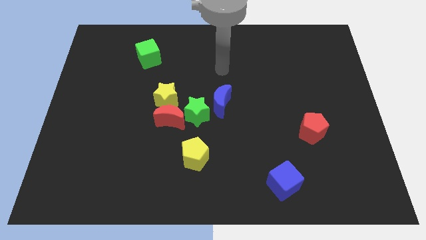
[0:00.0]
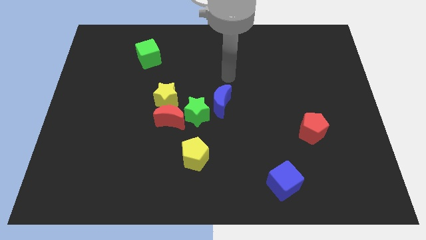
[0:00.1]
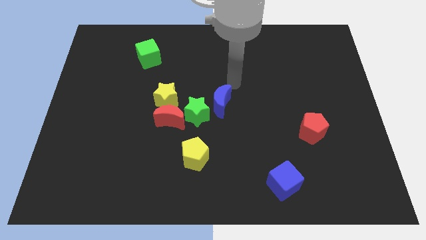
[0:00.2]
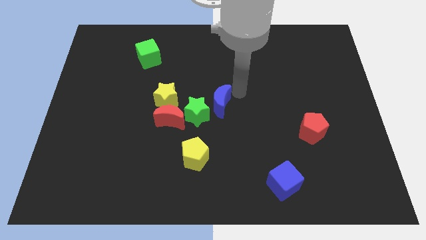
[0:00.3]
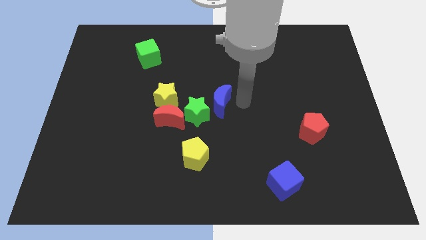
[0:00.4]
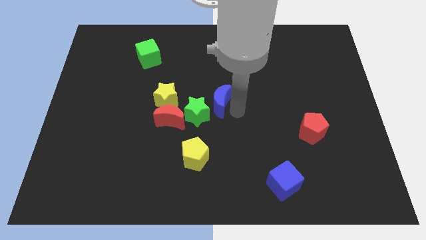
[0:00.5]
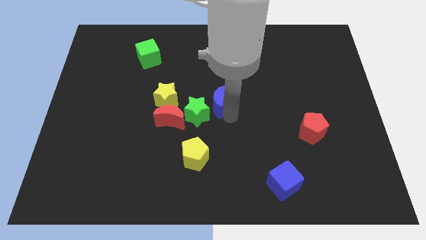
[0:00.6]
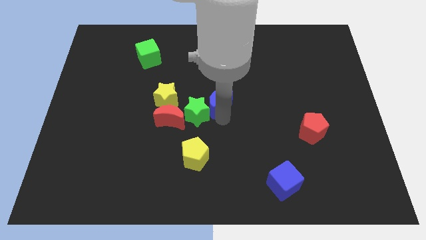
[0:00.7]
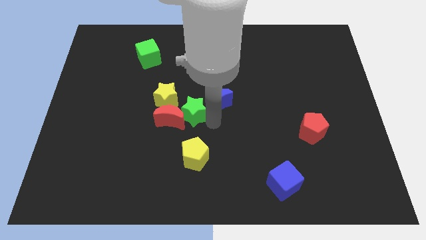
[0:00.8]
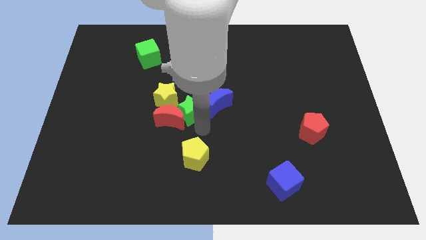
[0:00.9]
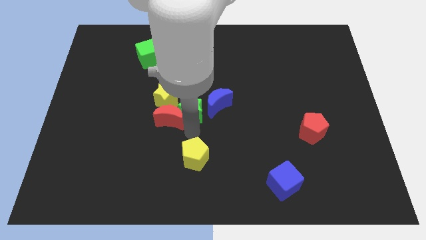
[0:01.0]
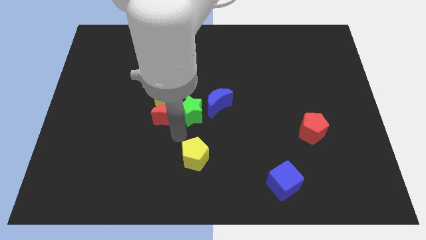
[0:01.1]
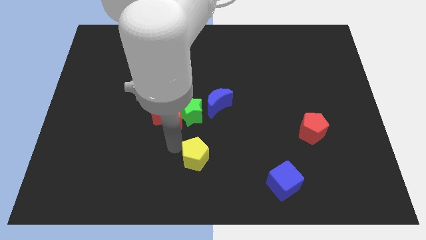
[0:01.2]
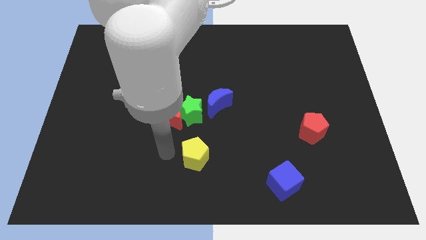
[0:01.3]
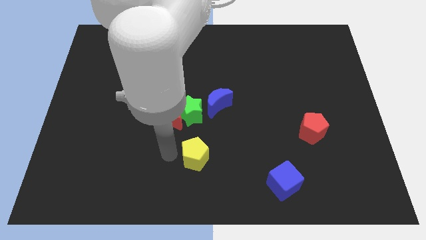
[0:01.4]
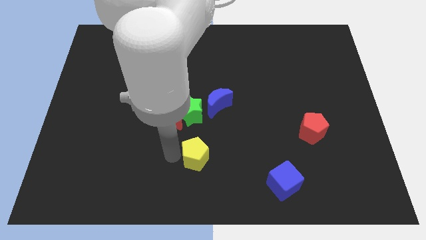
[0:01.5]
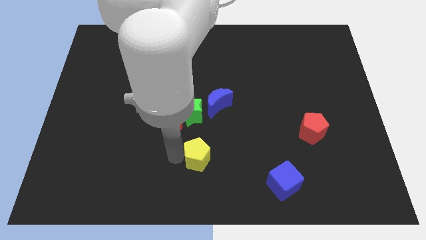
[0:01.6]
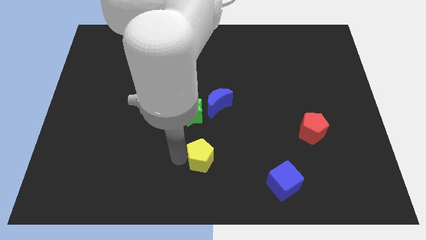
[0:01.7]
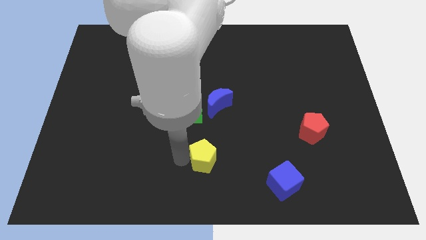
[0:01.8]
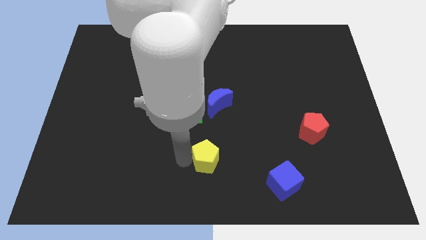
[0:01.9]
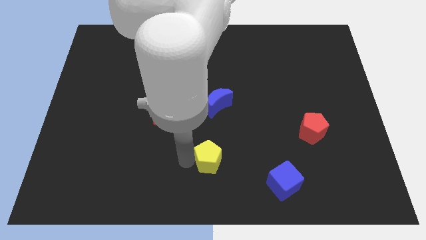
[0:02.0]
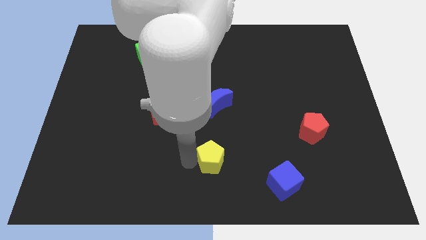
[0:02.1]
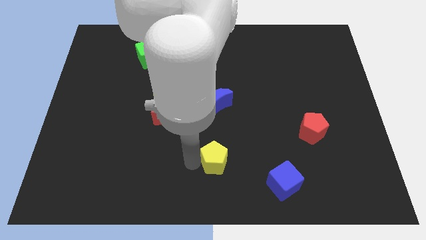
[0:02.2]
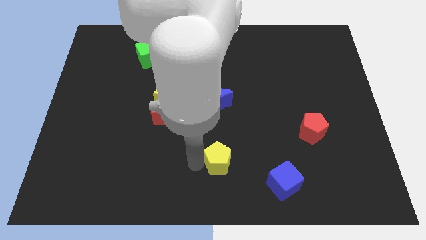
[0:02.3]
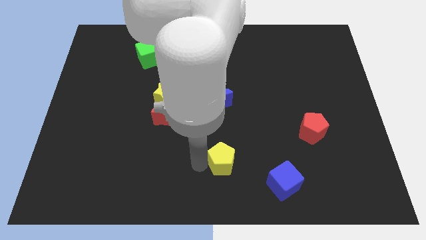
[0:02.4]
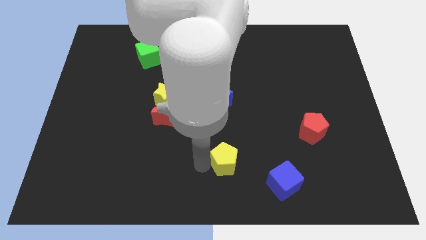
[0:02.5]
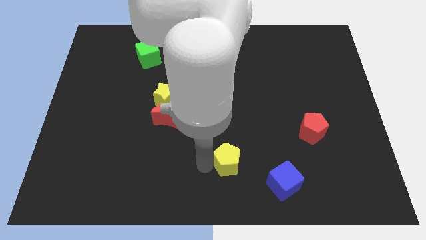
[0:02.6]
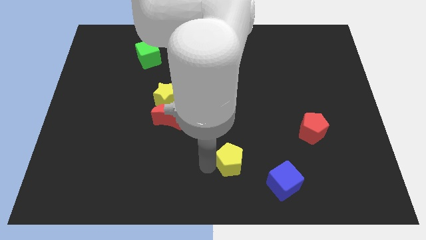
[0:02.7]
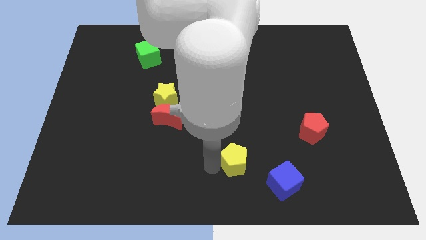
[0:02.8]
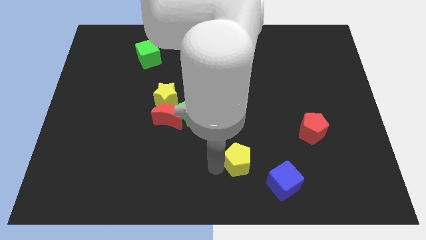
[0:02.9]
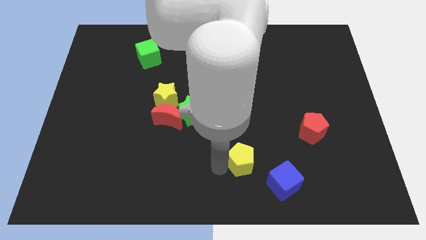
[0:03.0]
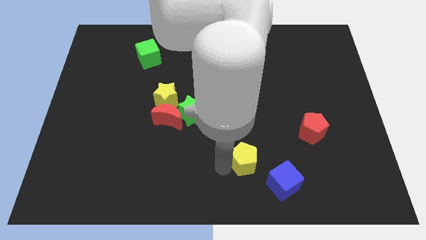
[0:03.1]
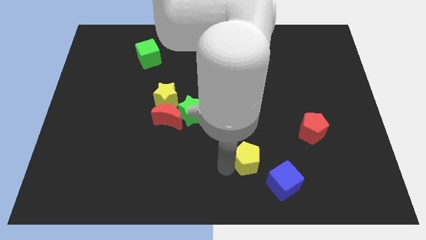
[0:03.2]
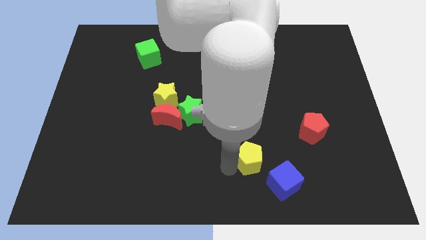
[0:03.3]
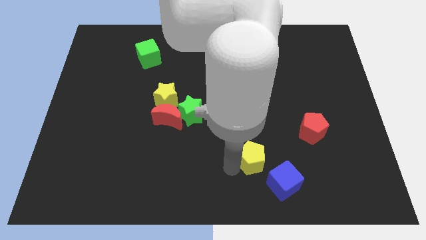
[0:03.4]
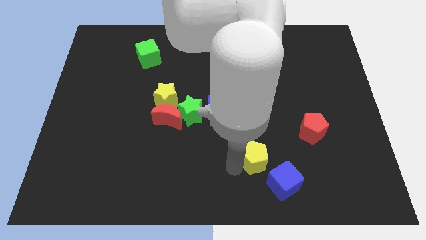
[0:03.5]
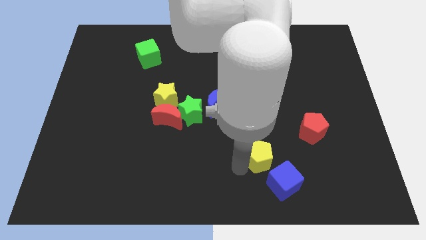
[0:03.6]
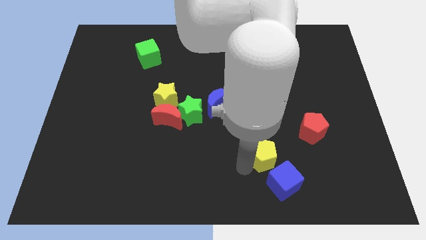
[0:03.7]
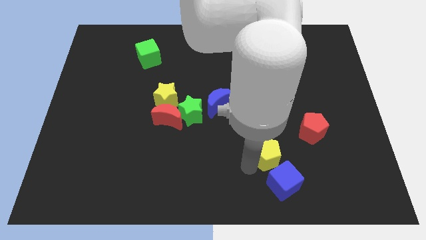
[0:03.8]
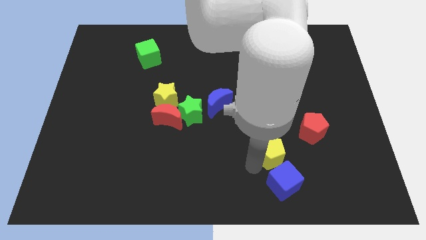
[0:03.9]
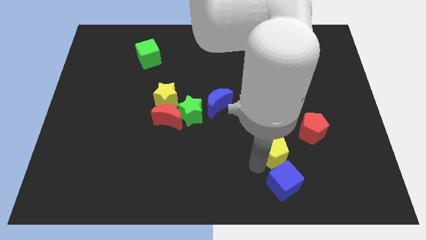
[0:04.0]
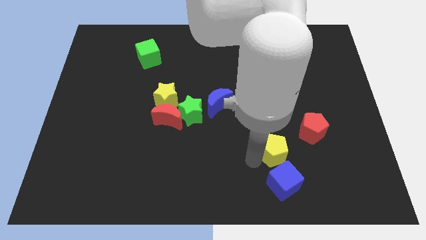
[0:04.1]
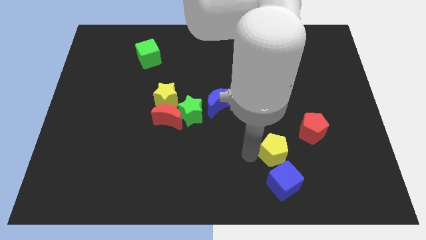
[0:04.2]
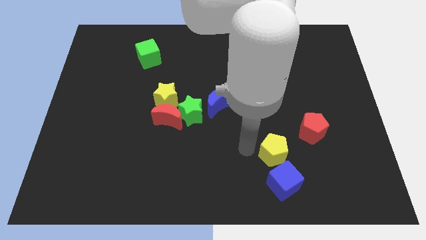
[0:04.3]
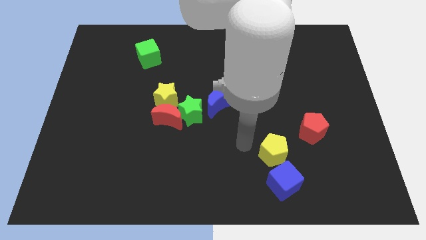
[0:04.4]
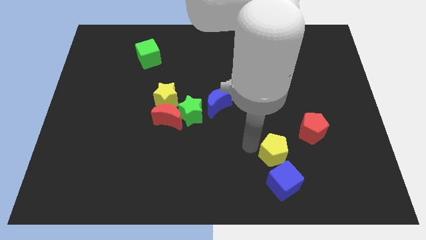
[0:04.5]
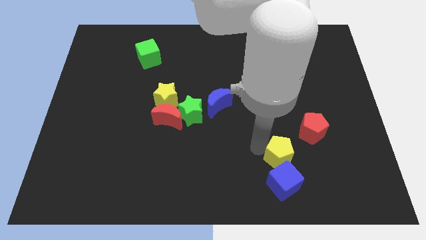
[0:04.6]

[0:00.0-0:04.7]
put the yellow pentagon to the top right side of the blue cube

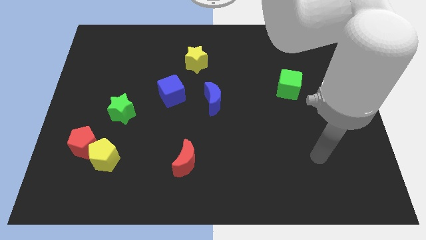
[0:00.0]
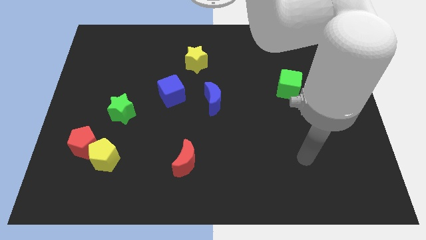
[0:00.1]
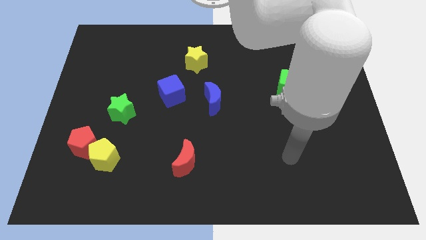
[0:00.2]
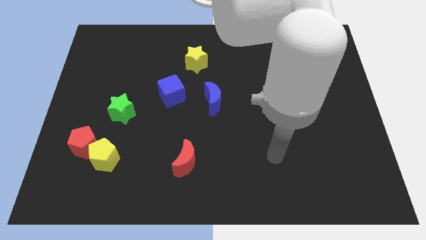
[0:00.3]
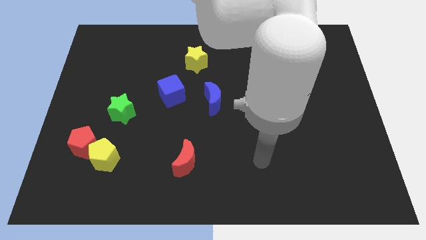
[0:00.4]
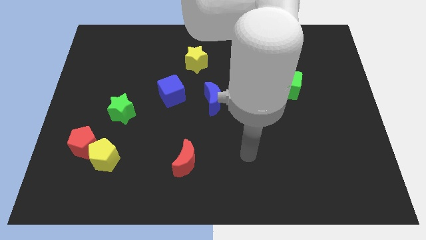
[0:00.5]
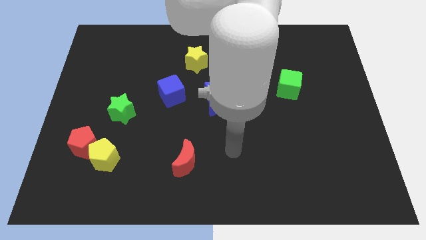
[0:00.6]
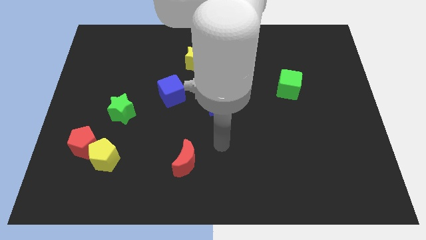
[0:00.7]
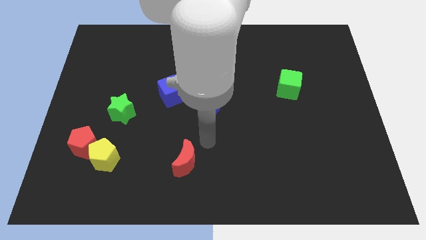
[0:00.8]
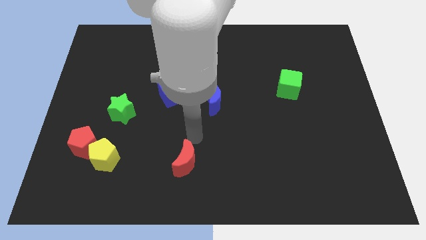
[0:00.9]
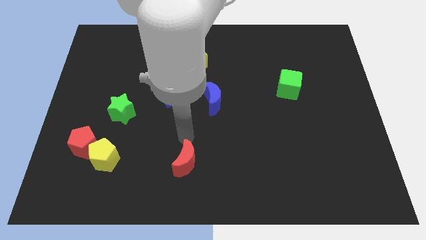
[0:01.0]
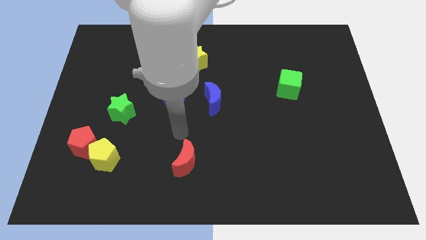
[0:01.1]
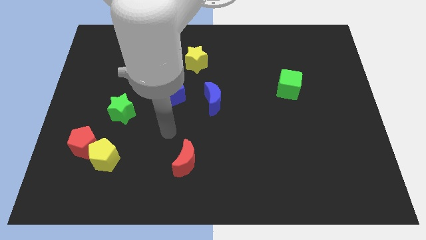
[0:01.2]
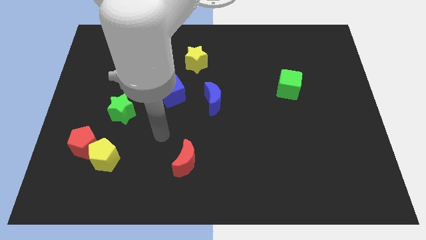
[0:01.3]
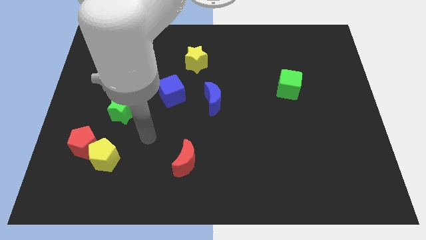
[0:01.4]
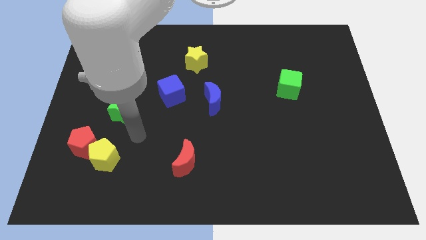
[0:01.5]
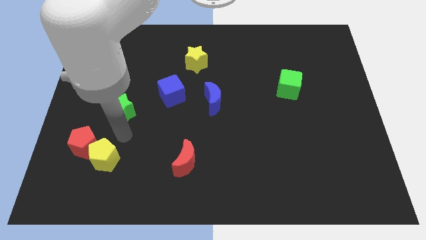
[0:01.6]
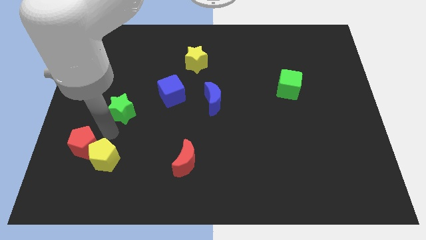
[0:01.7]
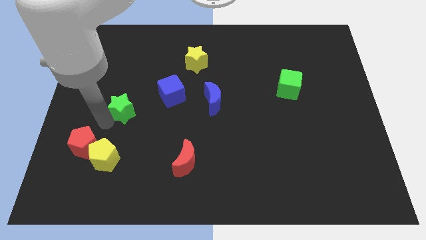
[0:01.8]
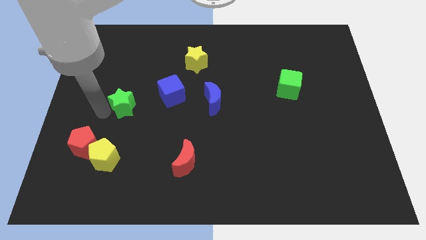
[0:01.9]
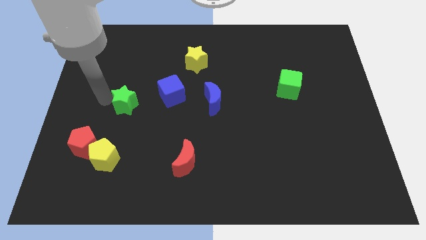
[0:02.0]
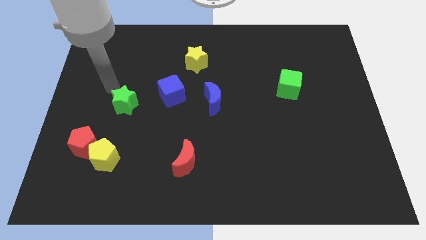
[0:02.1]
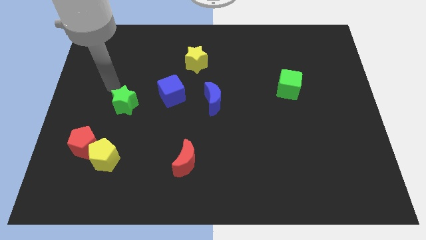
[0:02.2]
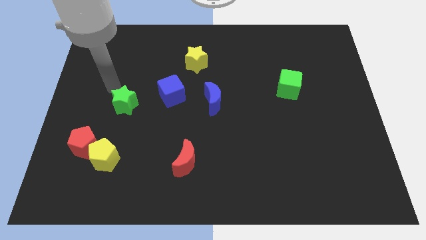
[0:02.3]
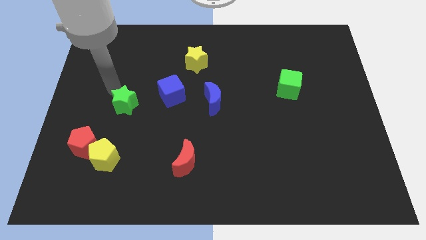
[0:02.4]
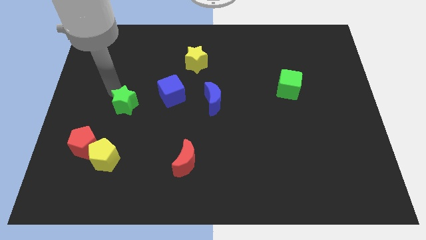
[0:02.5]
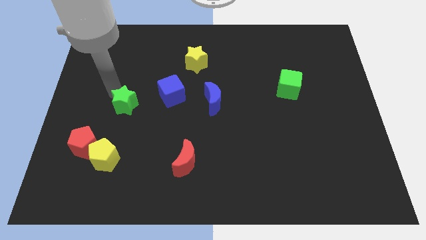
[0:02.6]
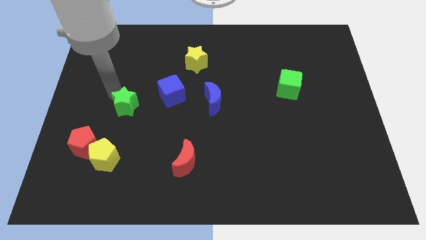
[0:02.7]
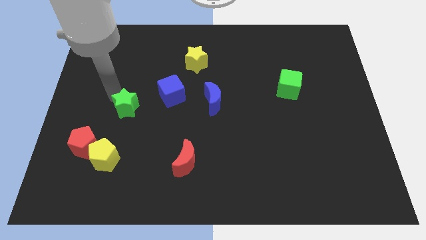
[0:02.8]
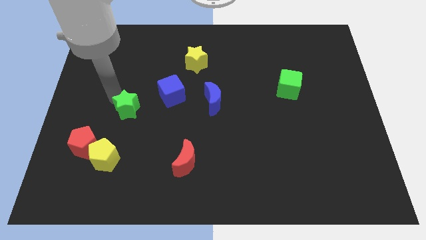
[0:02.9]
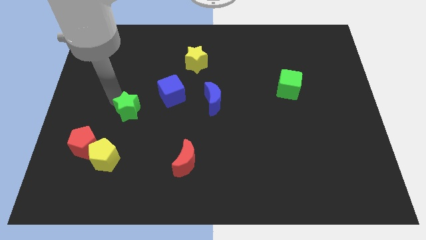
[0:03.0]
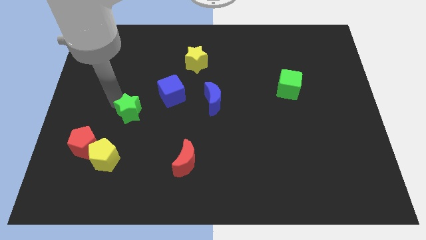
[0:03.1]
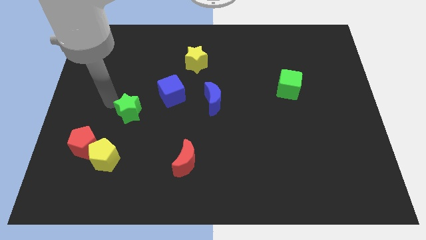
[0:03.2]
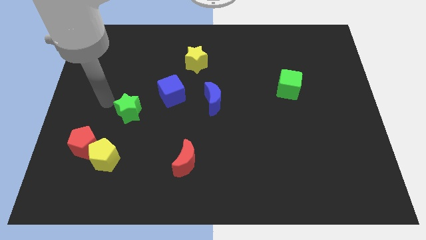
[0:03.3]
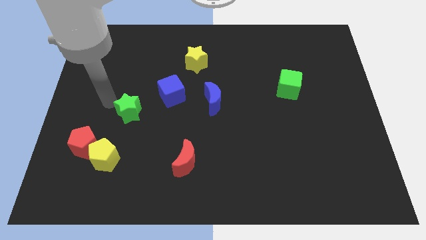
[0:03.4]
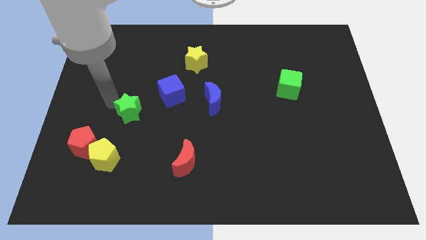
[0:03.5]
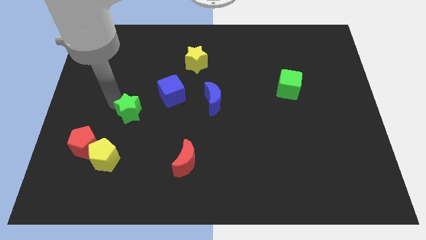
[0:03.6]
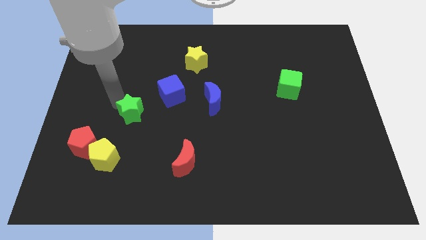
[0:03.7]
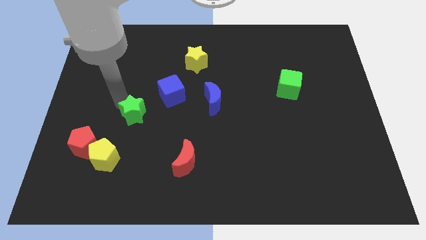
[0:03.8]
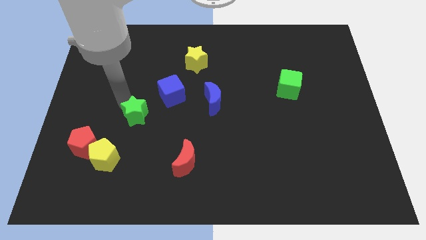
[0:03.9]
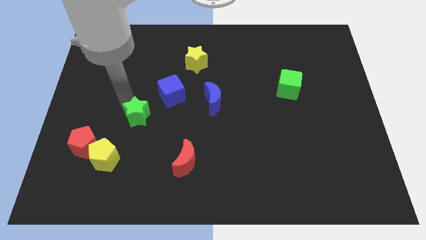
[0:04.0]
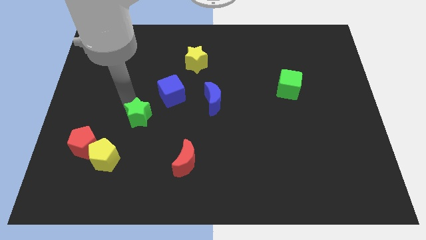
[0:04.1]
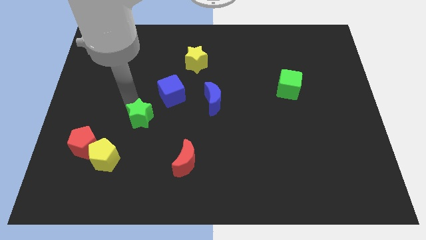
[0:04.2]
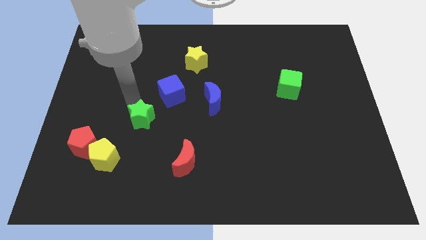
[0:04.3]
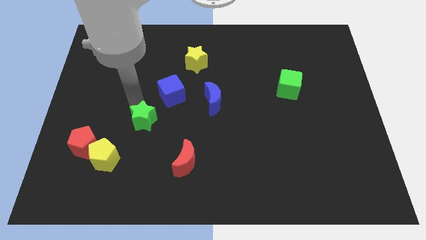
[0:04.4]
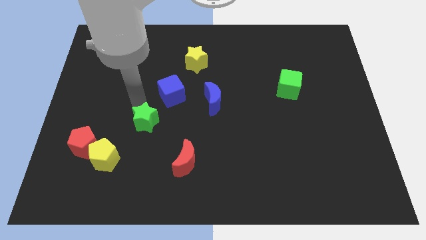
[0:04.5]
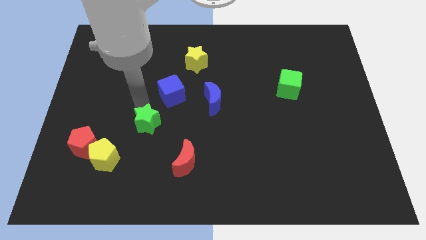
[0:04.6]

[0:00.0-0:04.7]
put the green star to the bottom of the blue cube
